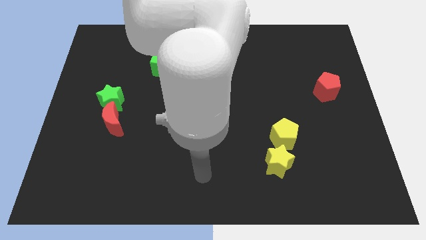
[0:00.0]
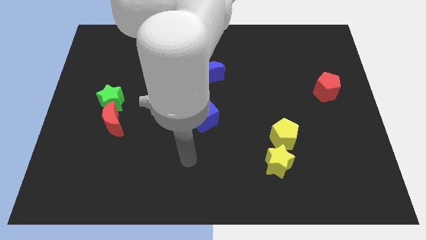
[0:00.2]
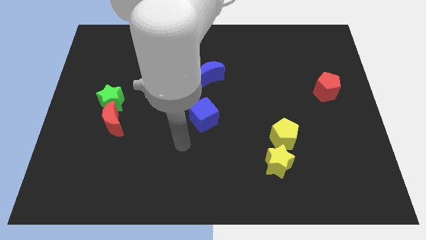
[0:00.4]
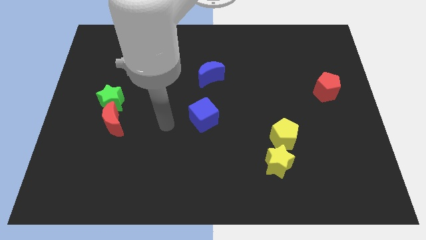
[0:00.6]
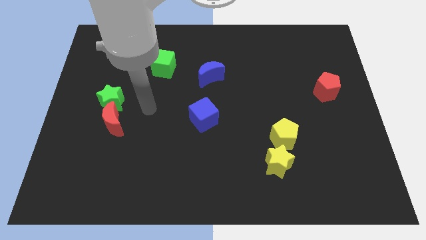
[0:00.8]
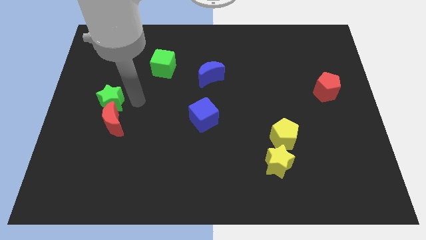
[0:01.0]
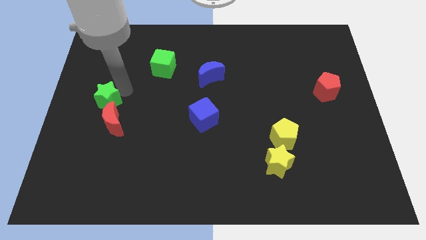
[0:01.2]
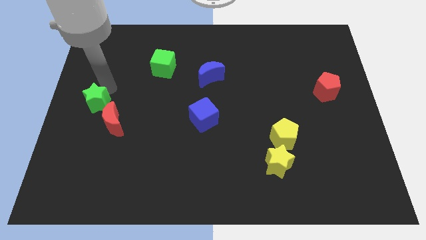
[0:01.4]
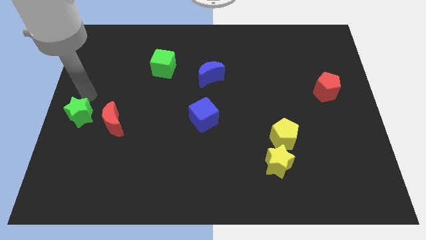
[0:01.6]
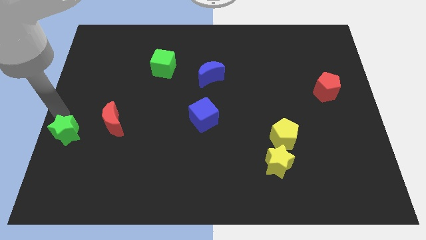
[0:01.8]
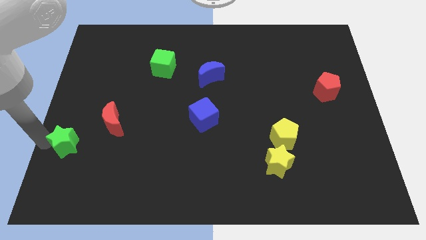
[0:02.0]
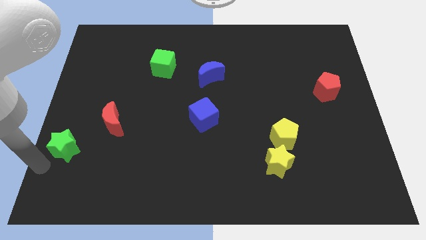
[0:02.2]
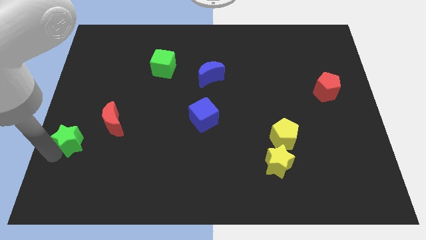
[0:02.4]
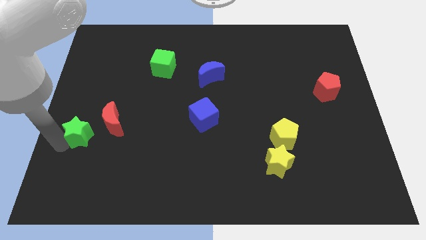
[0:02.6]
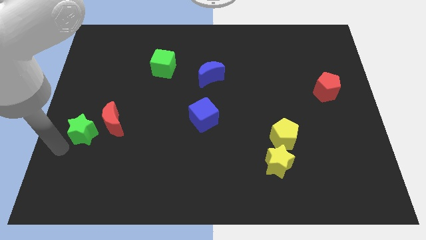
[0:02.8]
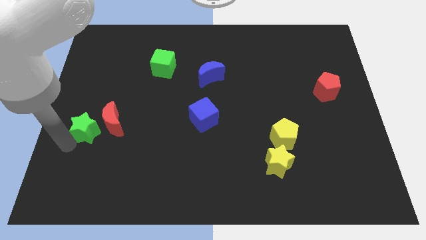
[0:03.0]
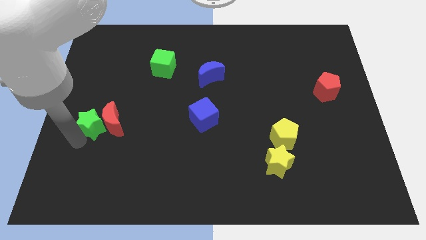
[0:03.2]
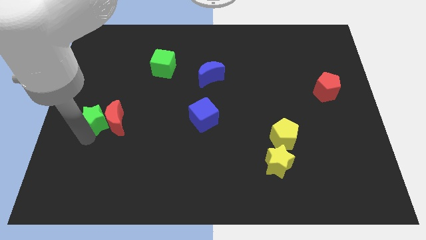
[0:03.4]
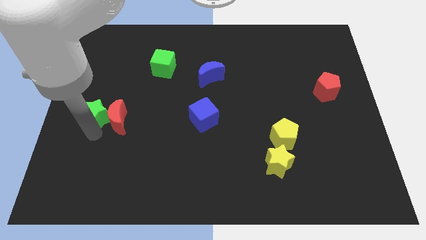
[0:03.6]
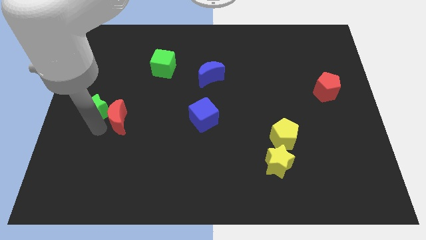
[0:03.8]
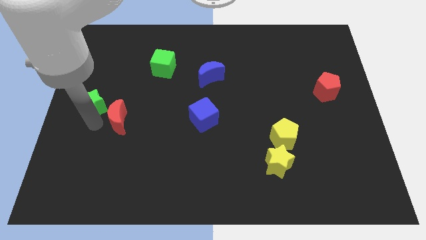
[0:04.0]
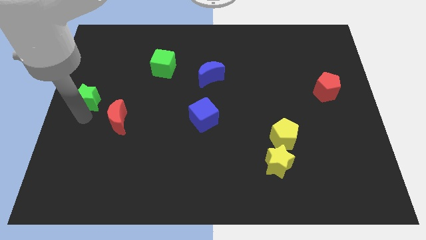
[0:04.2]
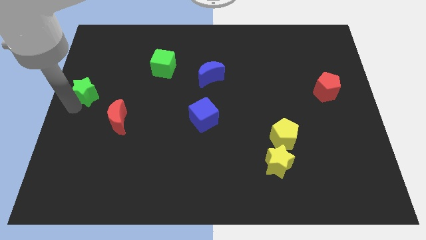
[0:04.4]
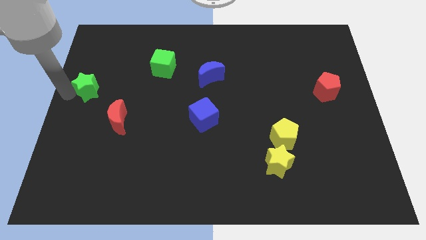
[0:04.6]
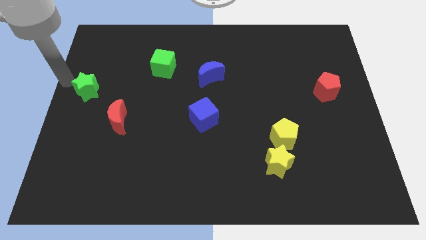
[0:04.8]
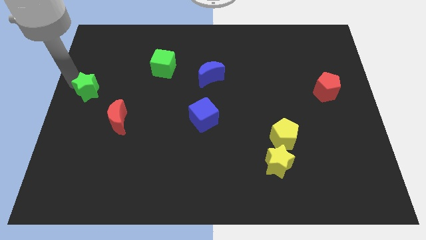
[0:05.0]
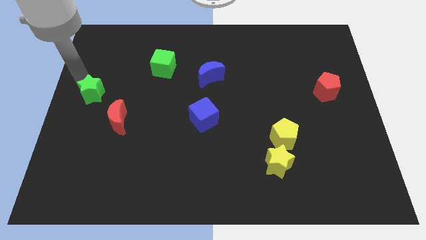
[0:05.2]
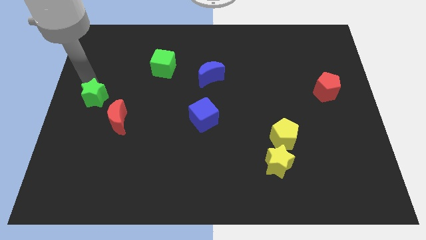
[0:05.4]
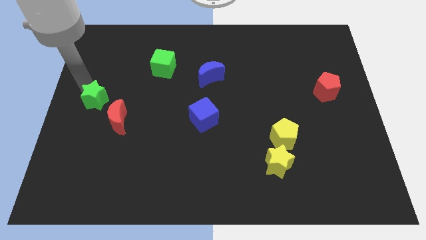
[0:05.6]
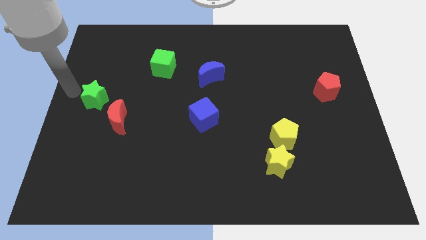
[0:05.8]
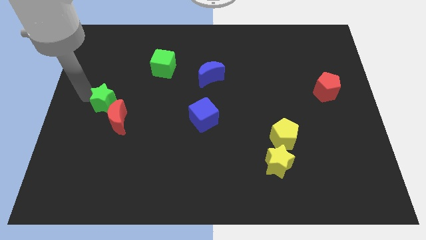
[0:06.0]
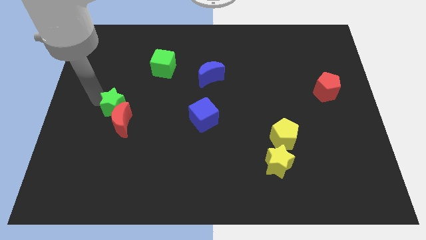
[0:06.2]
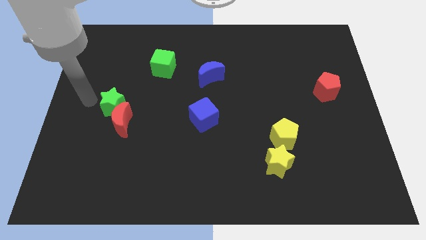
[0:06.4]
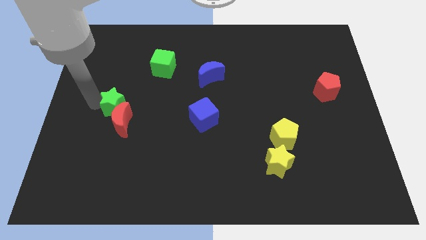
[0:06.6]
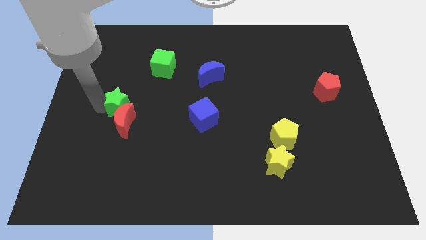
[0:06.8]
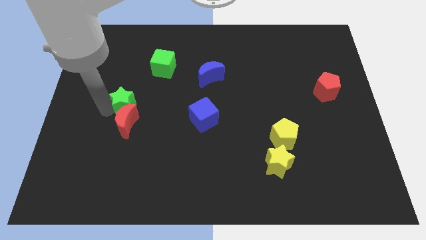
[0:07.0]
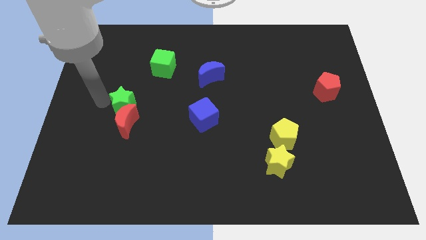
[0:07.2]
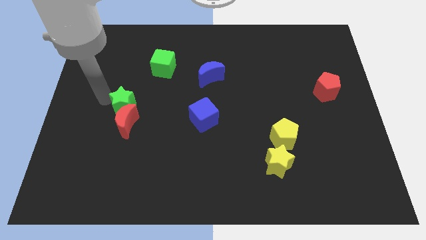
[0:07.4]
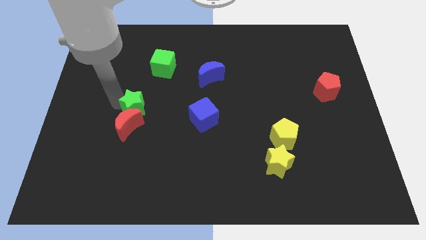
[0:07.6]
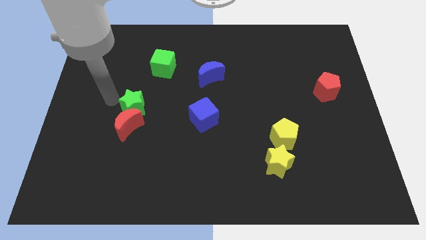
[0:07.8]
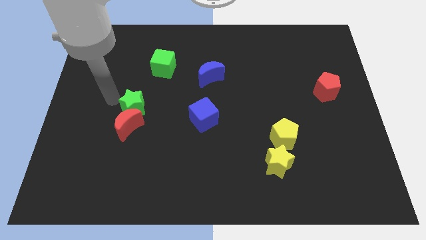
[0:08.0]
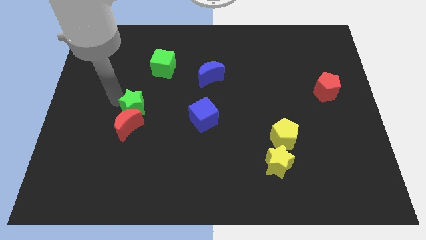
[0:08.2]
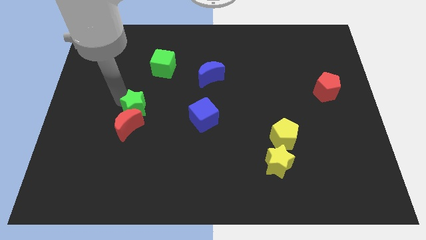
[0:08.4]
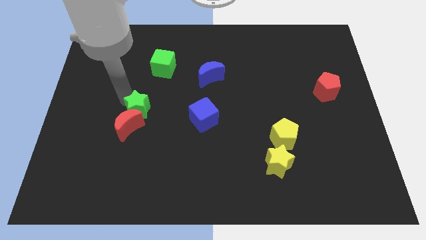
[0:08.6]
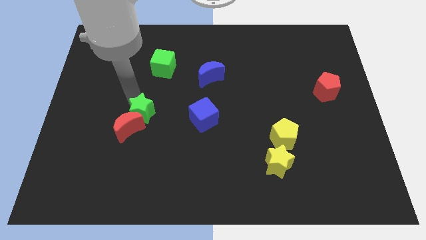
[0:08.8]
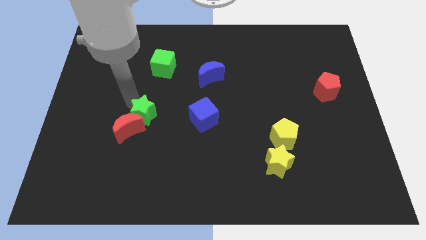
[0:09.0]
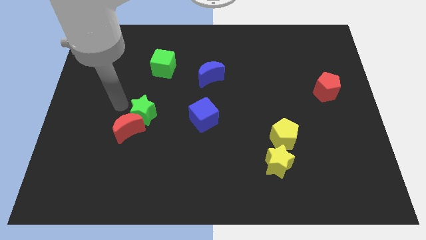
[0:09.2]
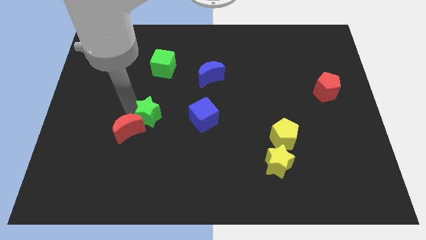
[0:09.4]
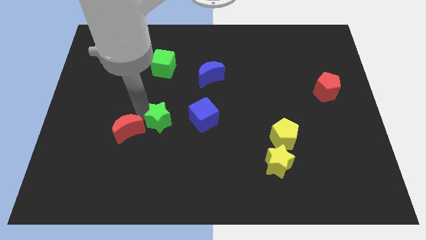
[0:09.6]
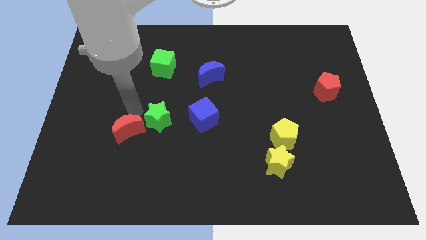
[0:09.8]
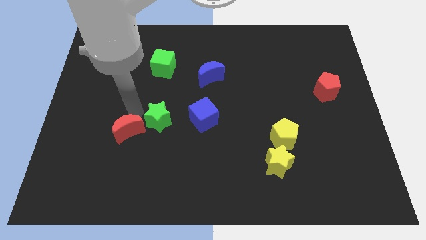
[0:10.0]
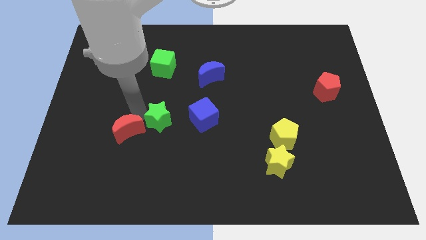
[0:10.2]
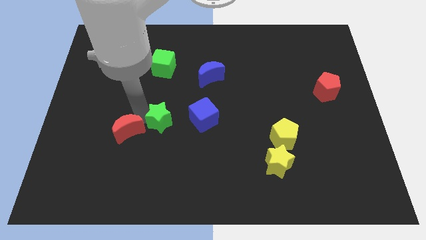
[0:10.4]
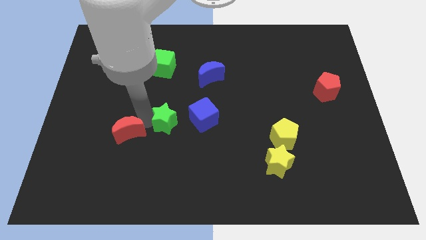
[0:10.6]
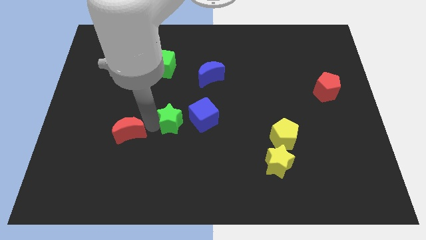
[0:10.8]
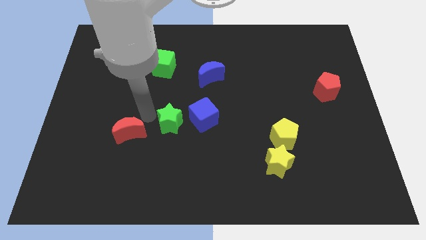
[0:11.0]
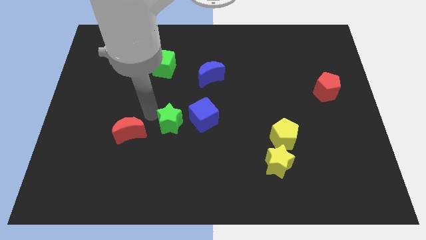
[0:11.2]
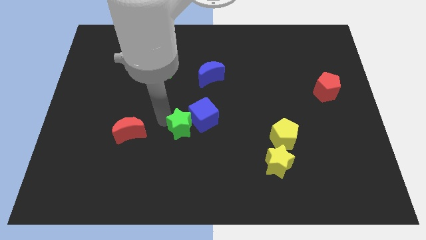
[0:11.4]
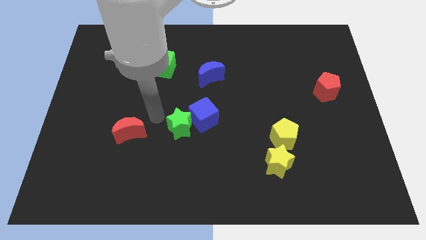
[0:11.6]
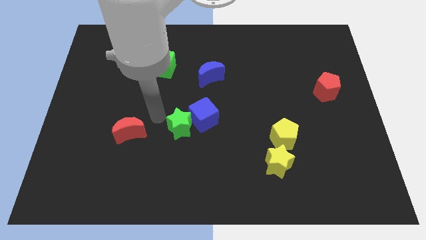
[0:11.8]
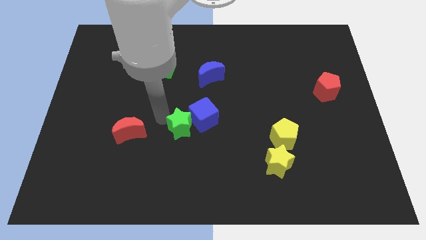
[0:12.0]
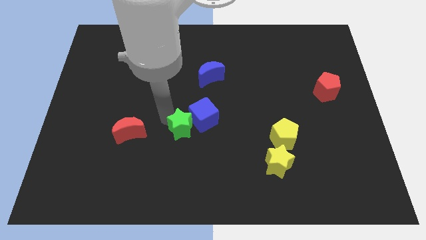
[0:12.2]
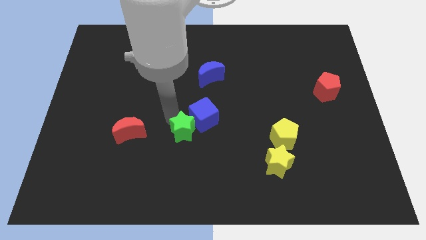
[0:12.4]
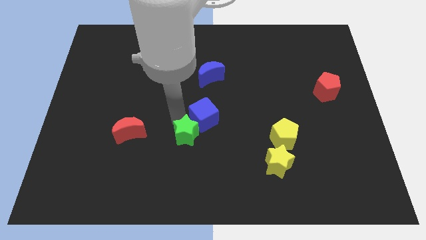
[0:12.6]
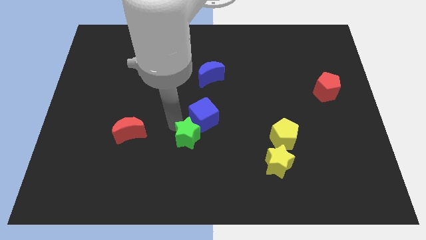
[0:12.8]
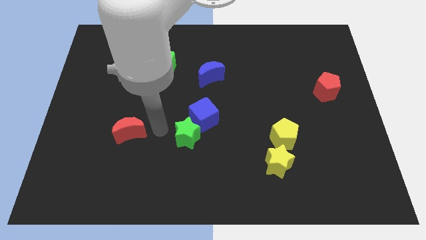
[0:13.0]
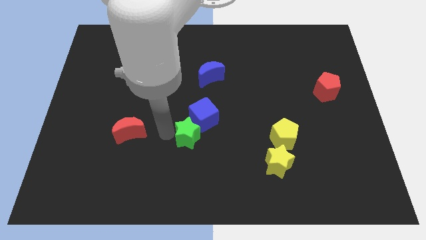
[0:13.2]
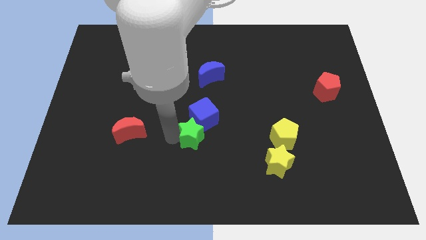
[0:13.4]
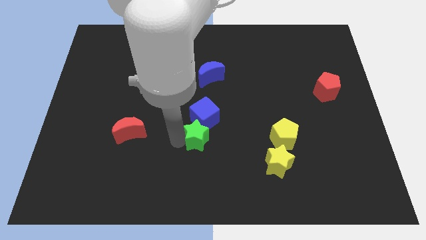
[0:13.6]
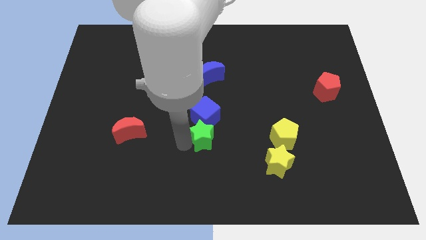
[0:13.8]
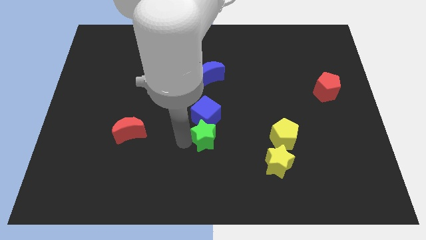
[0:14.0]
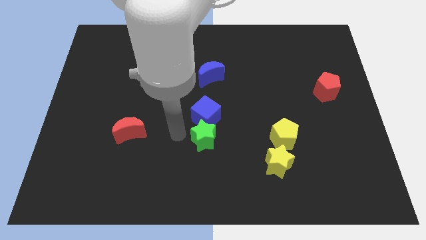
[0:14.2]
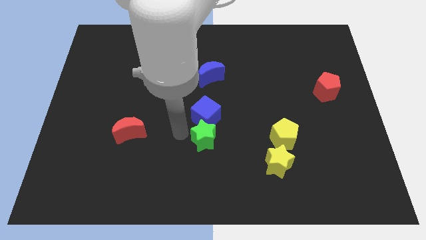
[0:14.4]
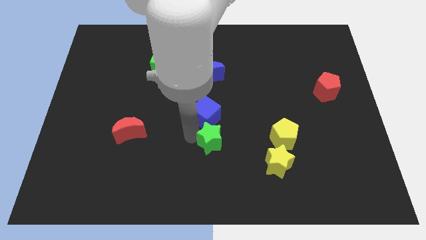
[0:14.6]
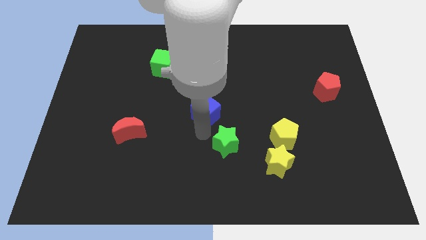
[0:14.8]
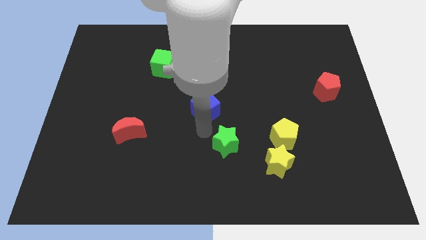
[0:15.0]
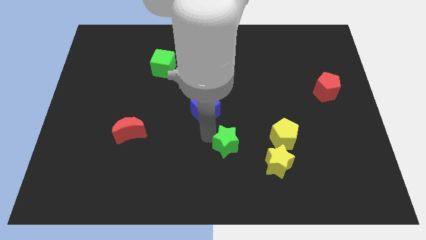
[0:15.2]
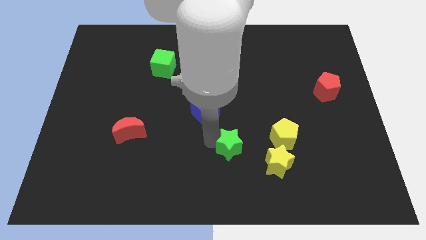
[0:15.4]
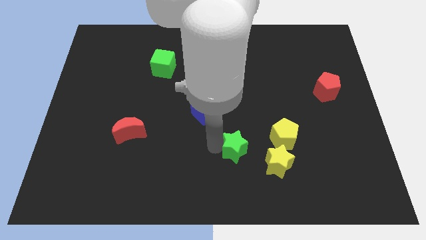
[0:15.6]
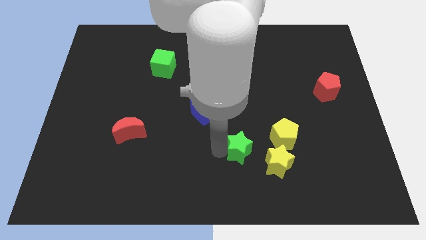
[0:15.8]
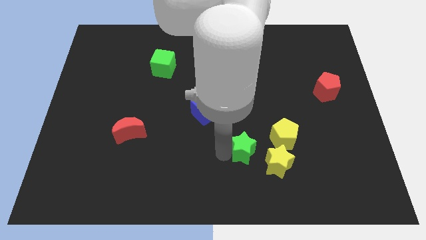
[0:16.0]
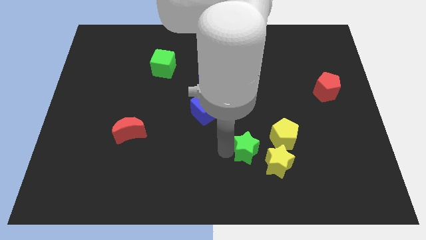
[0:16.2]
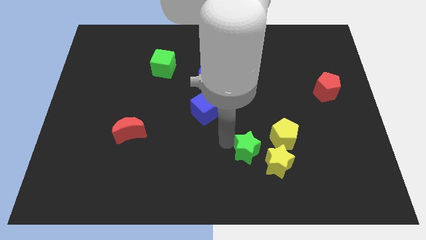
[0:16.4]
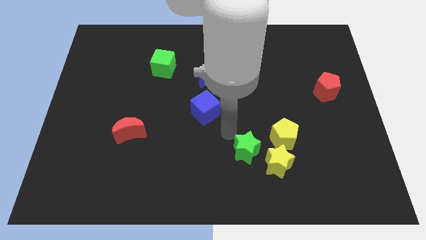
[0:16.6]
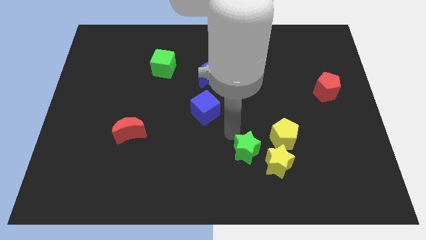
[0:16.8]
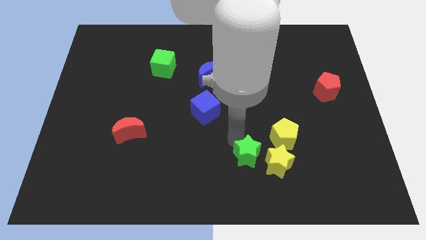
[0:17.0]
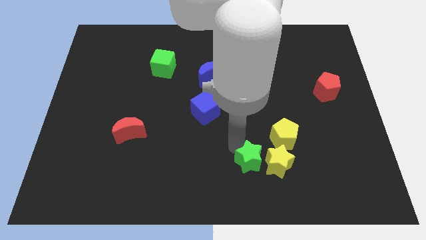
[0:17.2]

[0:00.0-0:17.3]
push the green star close to the yellow star
